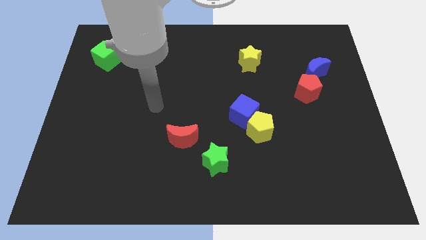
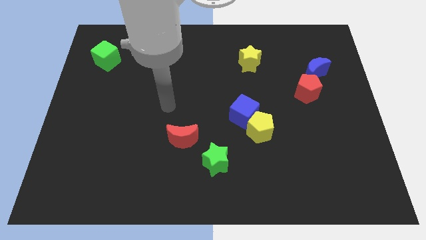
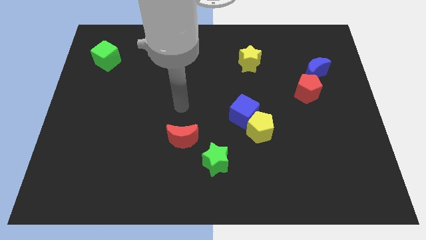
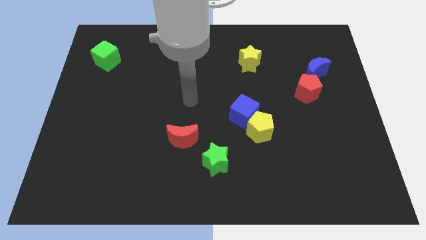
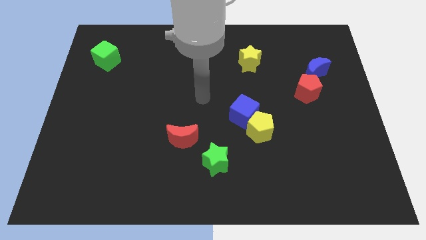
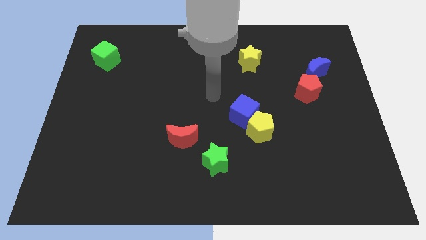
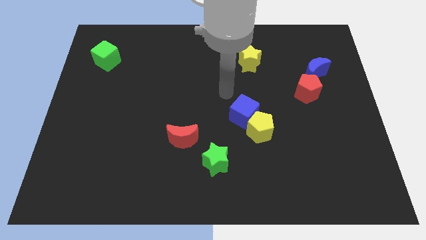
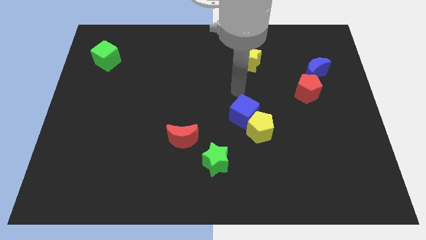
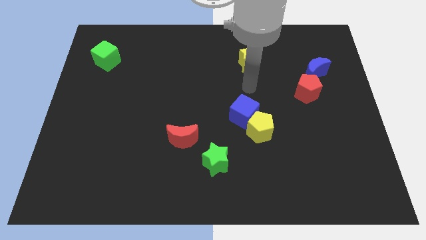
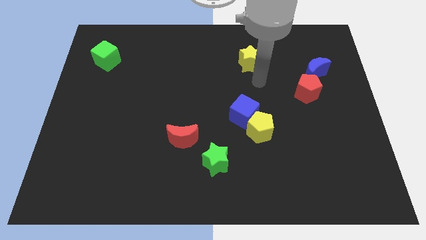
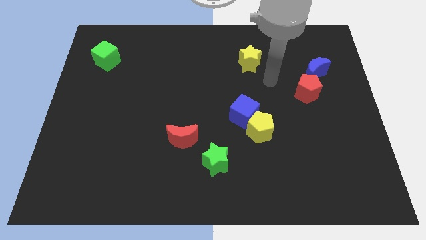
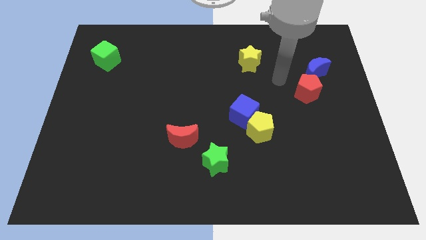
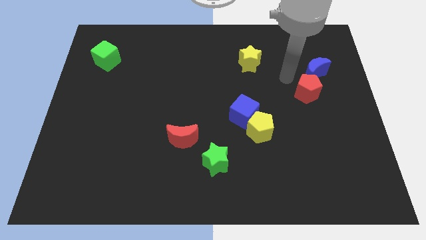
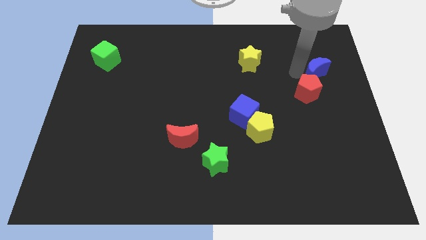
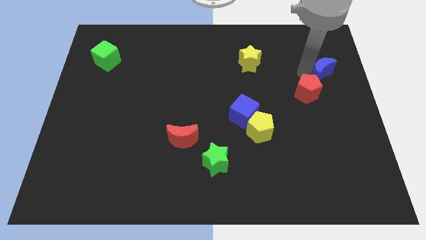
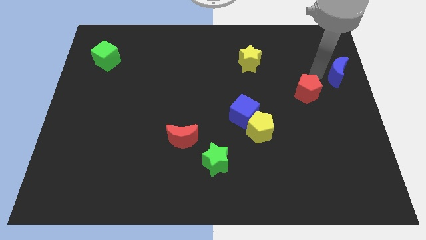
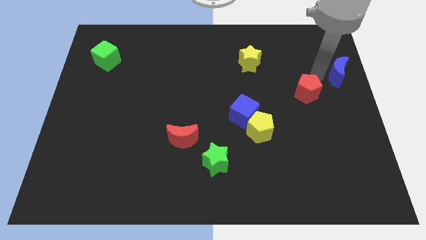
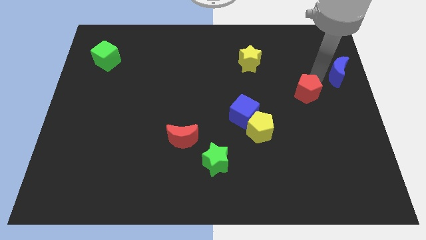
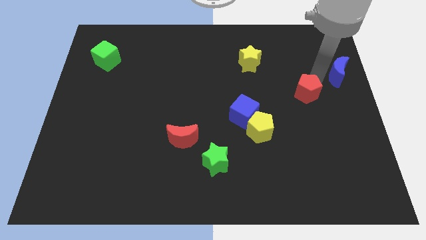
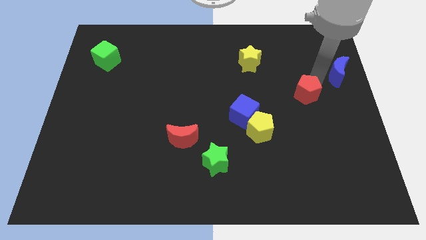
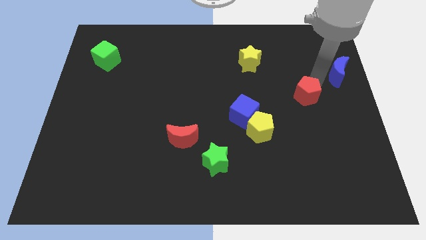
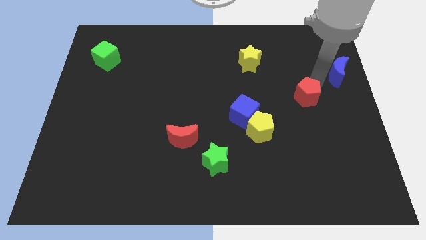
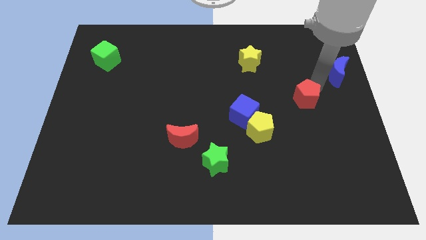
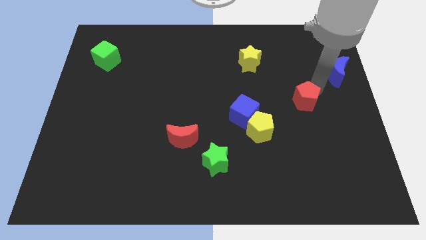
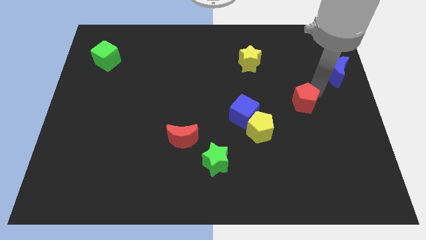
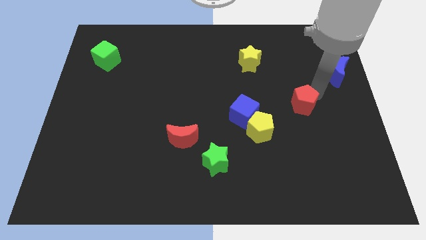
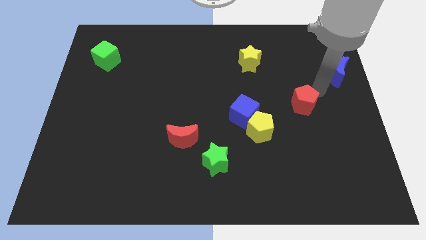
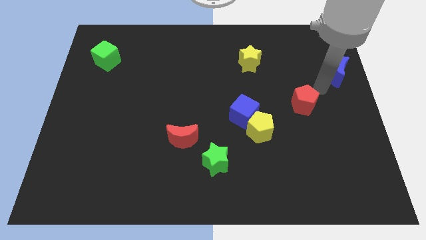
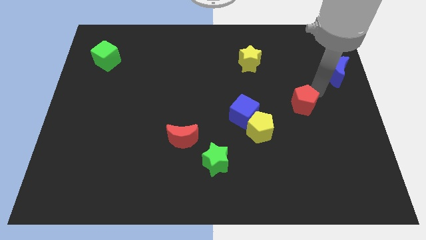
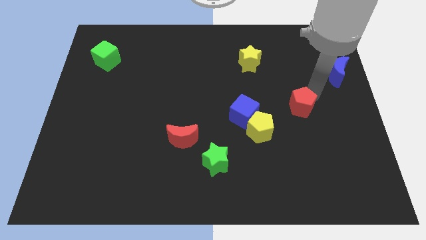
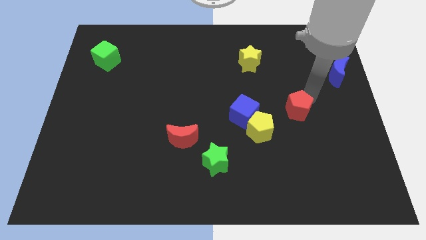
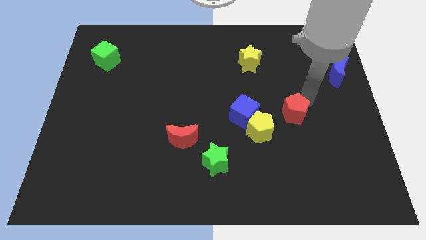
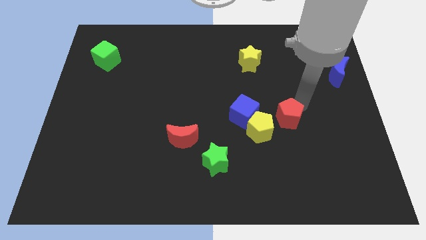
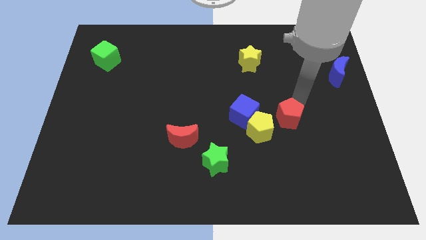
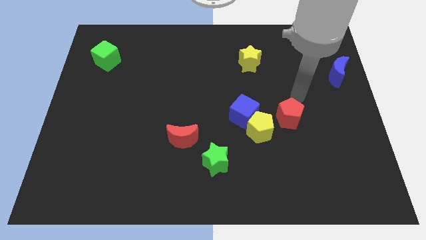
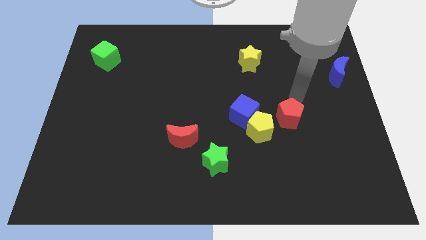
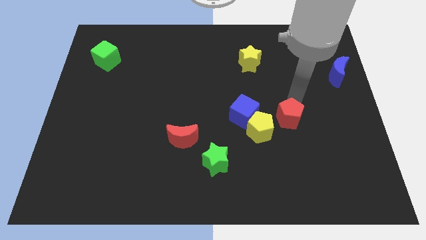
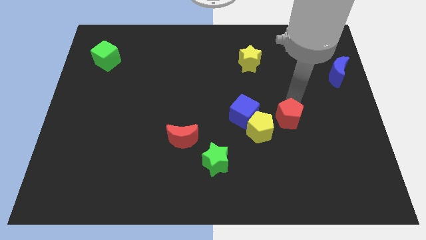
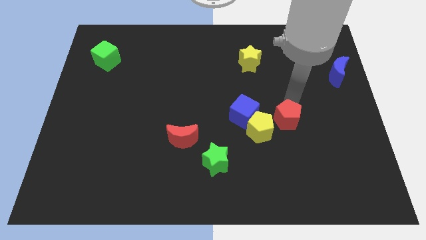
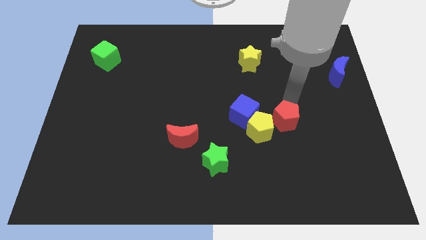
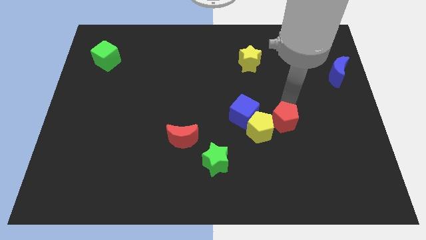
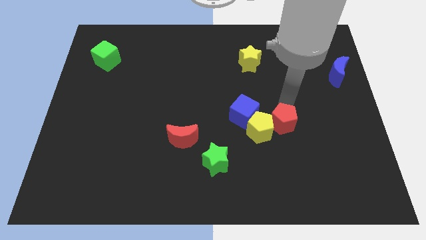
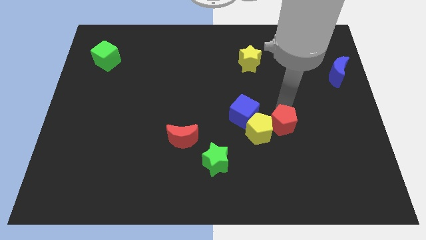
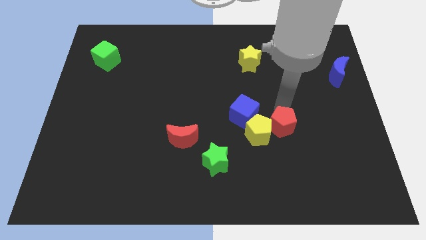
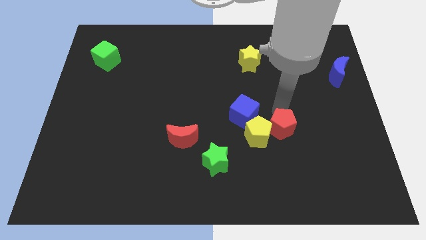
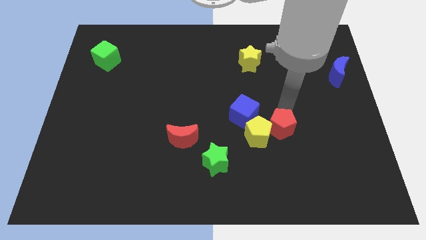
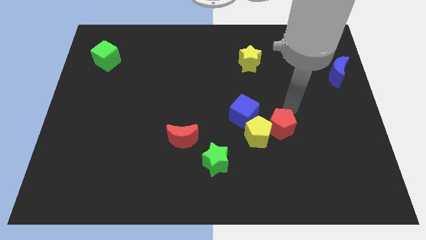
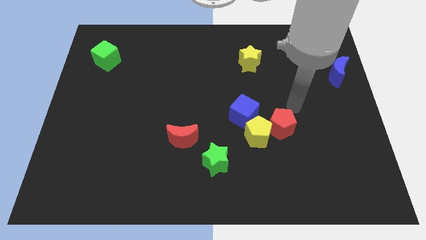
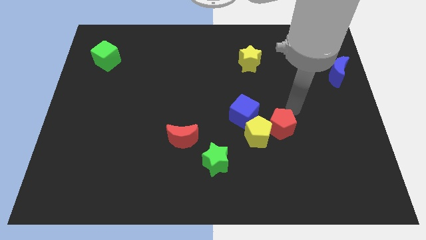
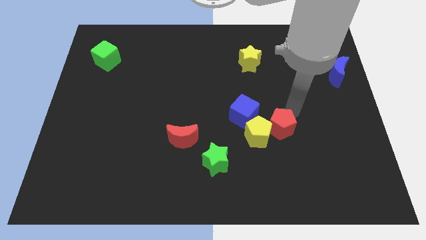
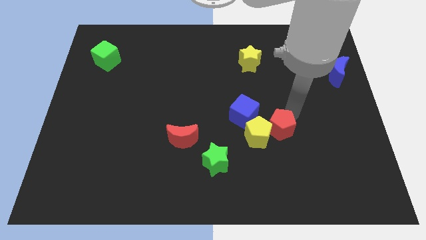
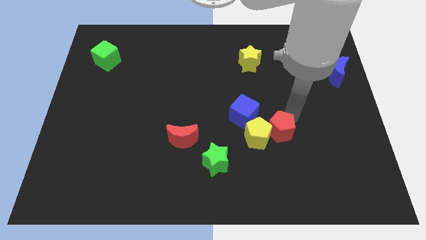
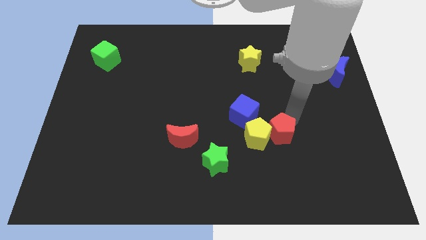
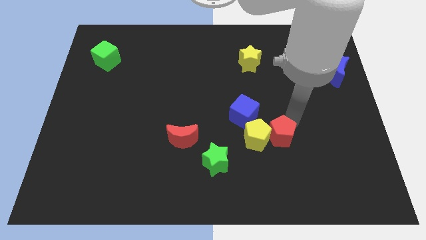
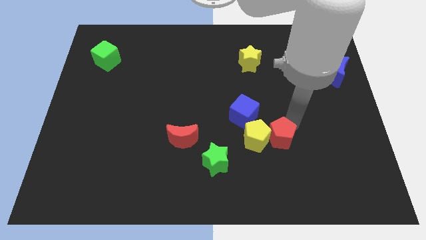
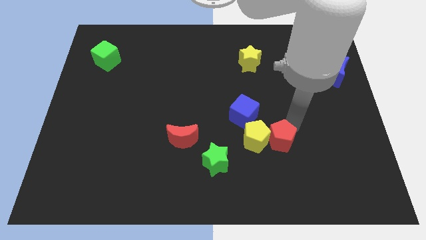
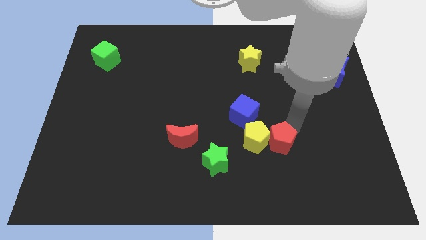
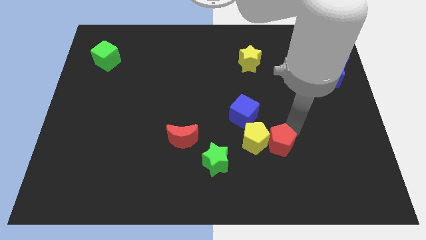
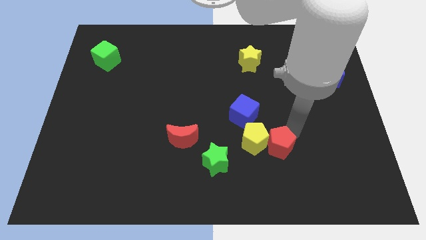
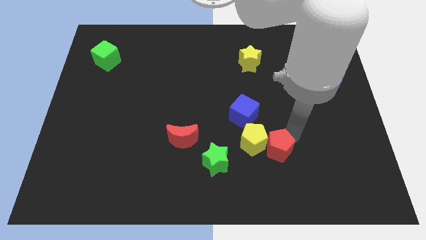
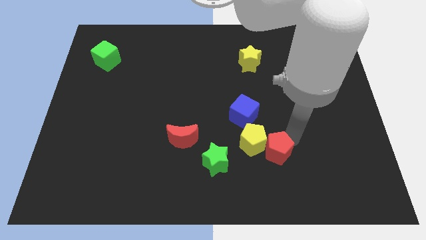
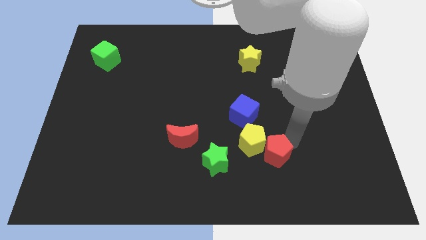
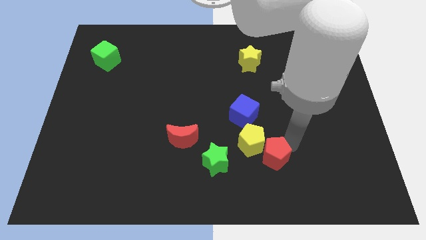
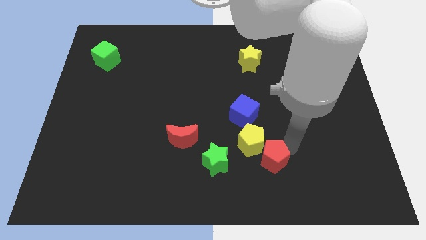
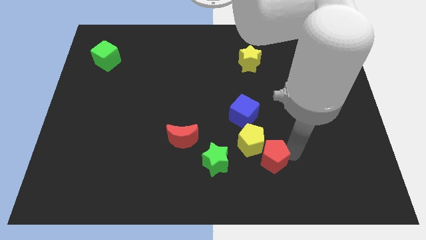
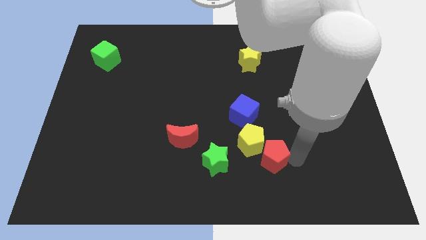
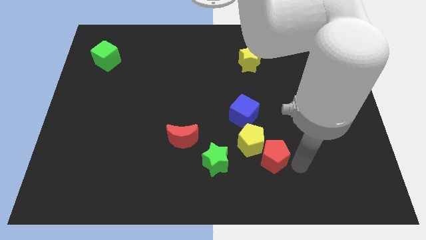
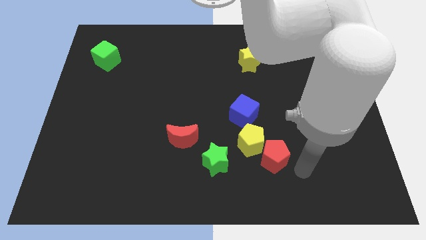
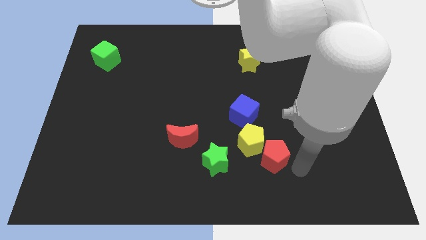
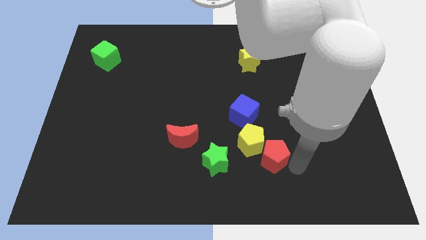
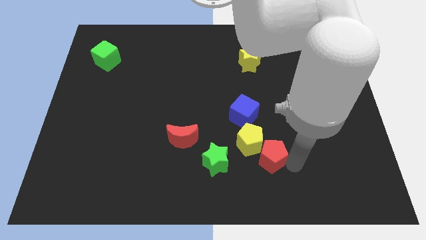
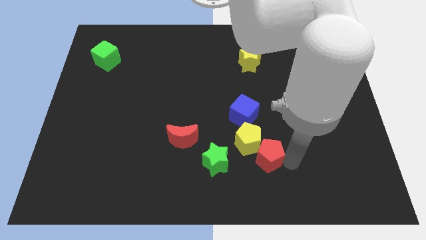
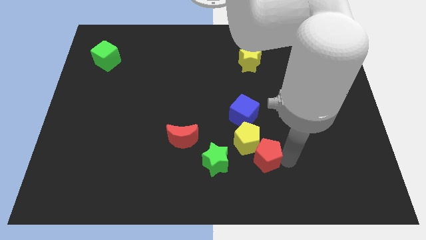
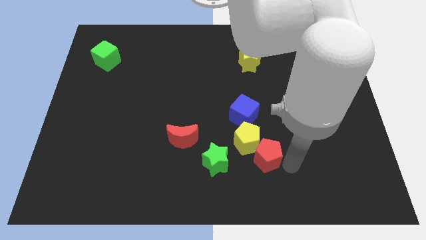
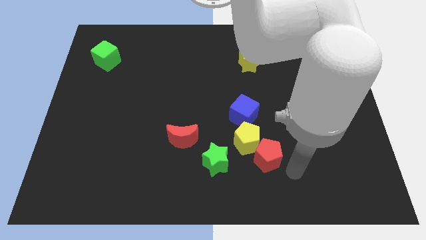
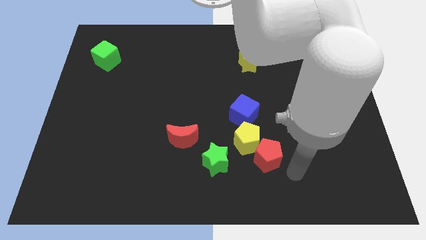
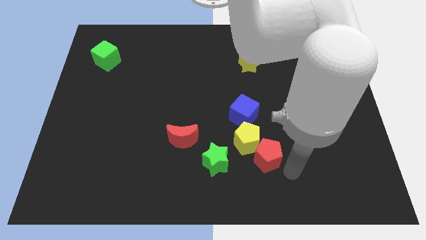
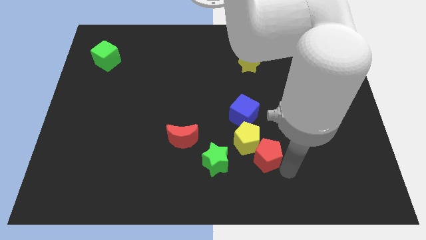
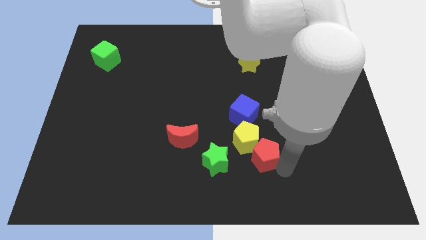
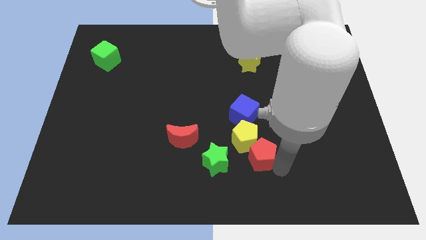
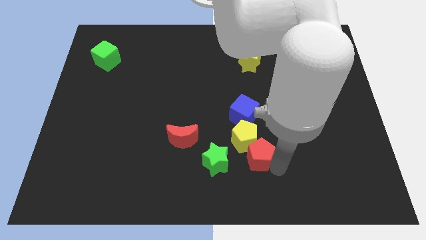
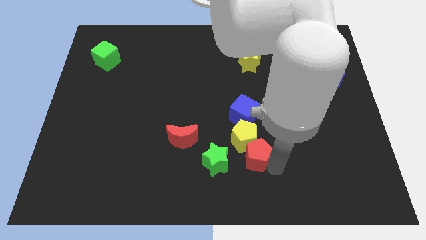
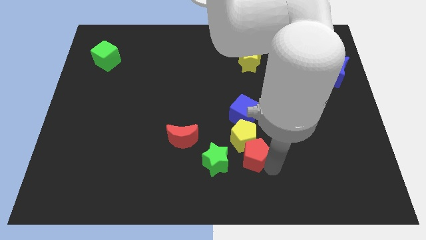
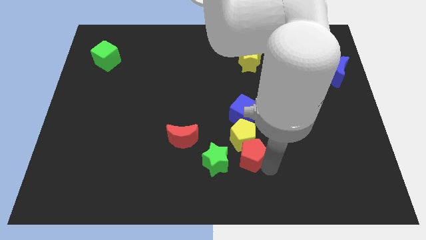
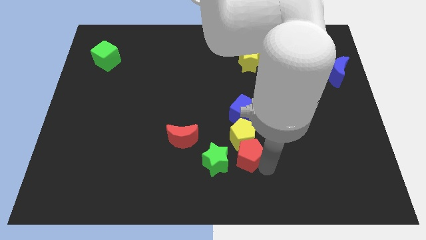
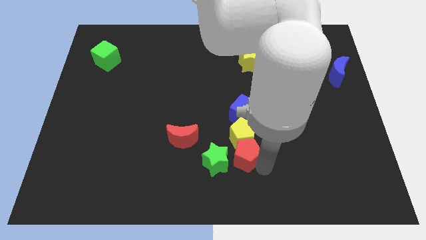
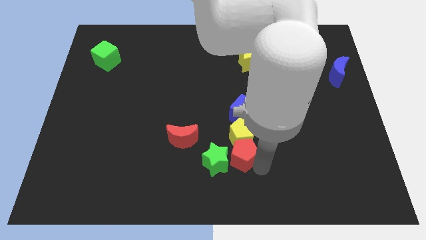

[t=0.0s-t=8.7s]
slide the red pentagon to the right of the red moon
